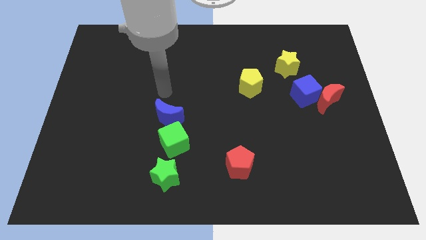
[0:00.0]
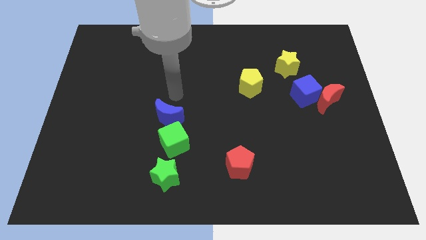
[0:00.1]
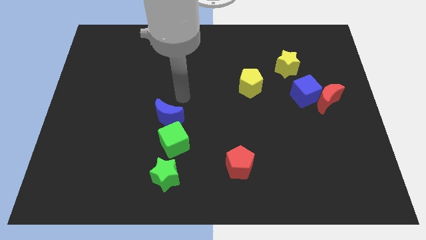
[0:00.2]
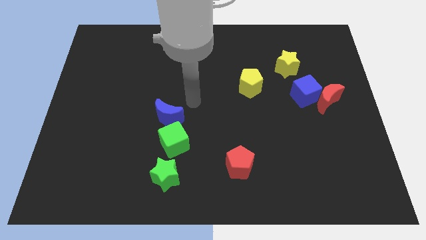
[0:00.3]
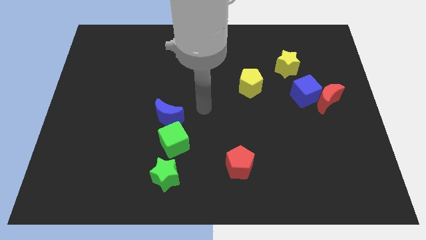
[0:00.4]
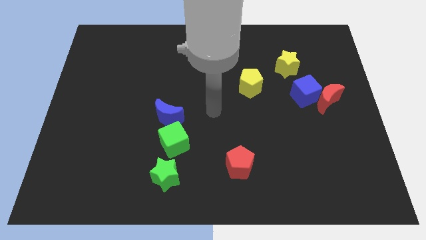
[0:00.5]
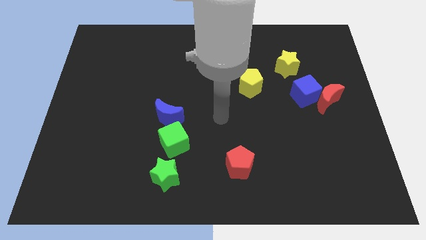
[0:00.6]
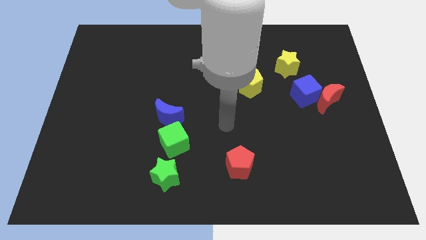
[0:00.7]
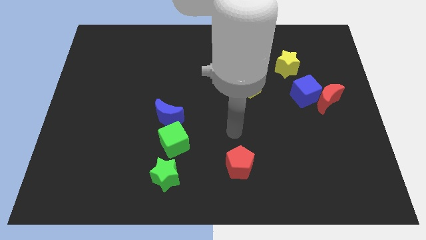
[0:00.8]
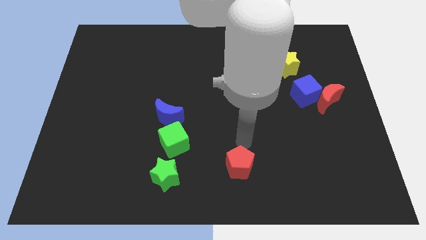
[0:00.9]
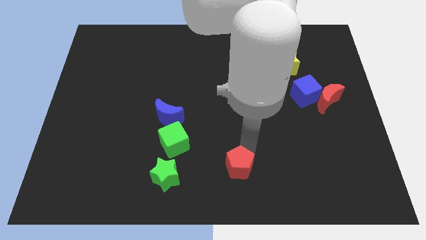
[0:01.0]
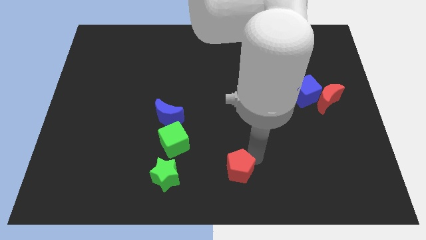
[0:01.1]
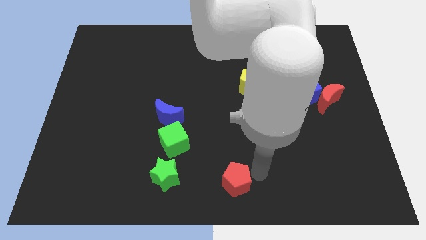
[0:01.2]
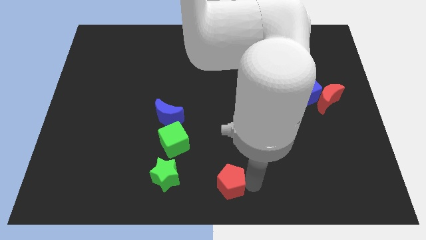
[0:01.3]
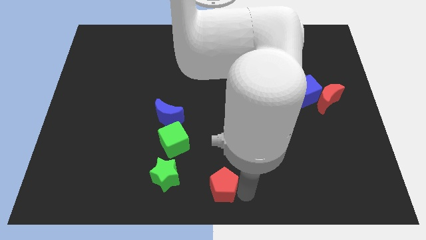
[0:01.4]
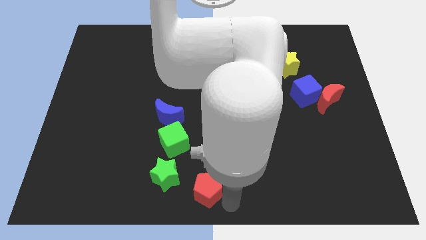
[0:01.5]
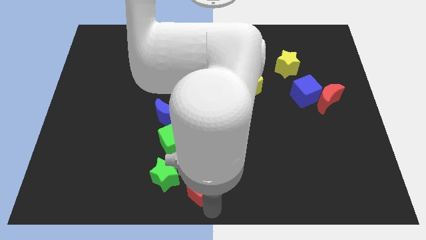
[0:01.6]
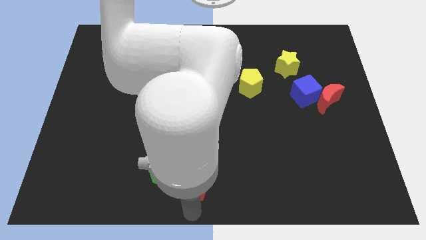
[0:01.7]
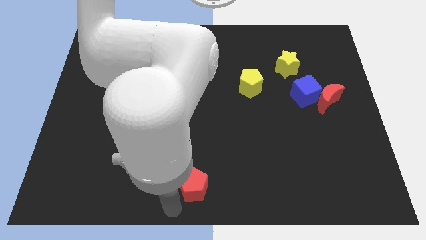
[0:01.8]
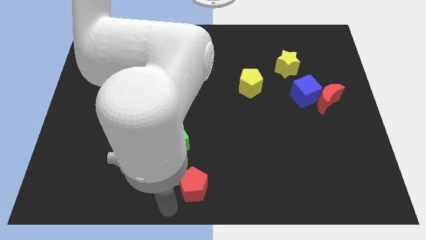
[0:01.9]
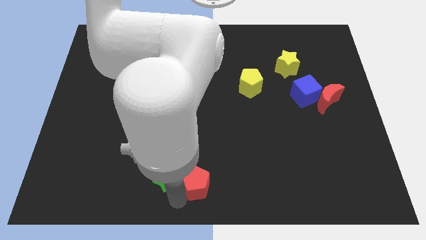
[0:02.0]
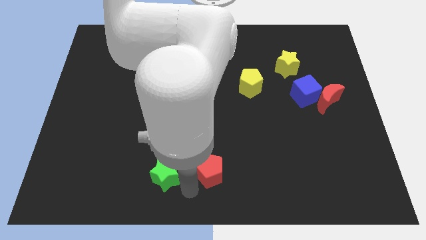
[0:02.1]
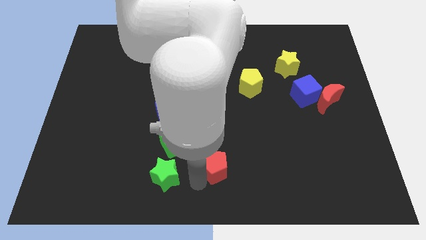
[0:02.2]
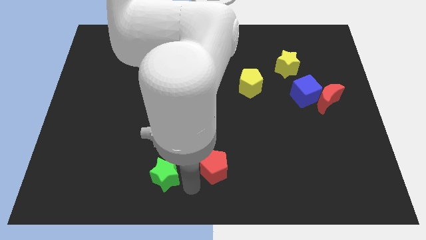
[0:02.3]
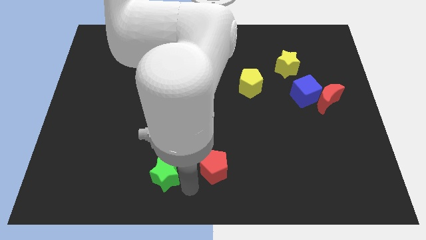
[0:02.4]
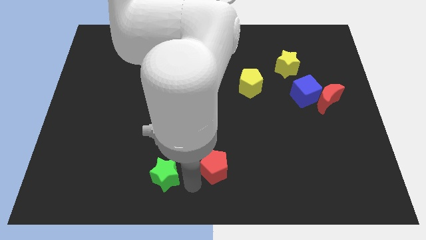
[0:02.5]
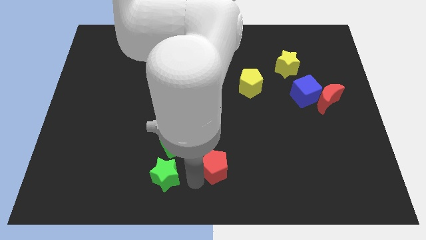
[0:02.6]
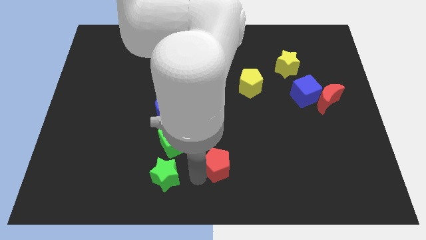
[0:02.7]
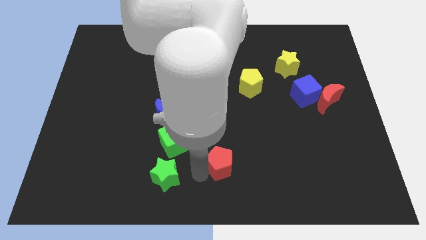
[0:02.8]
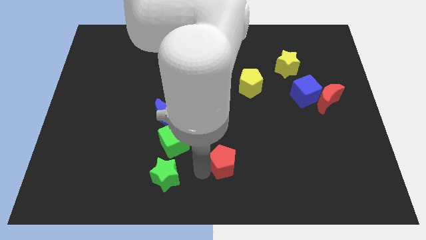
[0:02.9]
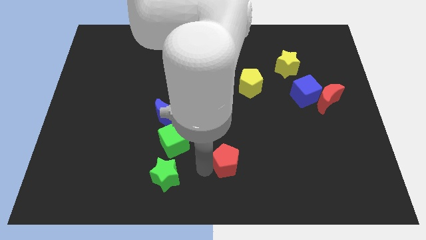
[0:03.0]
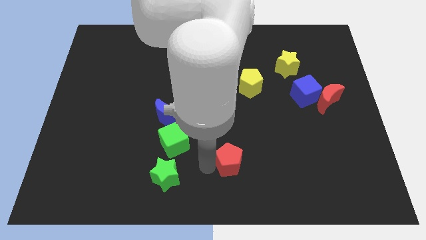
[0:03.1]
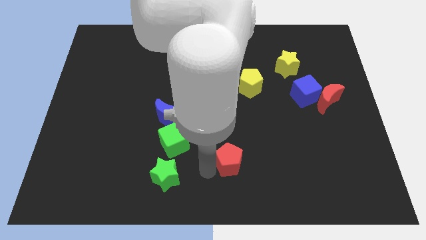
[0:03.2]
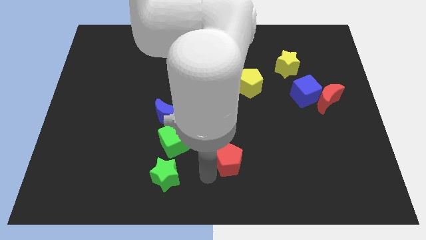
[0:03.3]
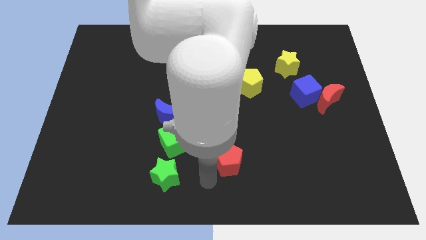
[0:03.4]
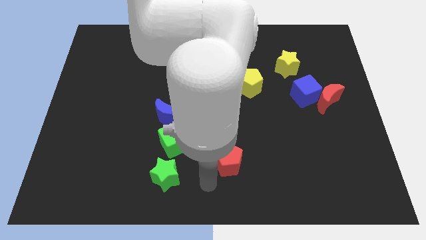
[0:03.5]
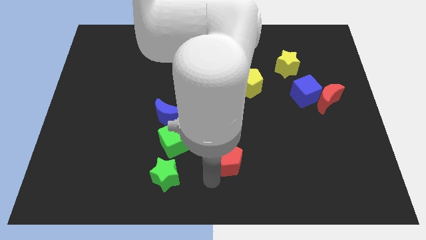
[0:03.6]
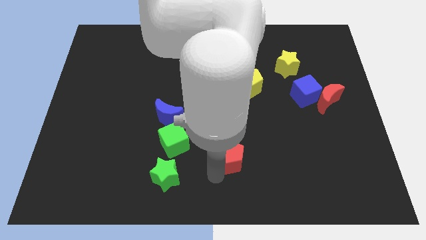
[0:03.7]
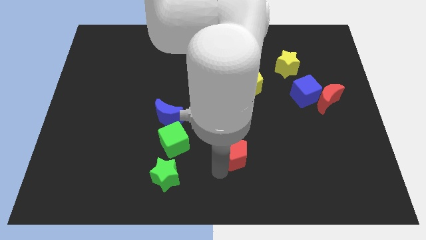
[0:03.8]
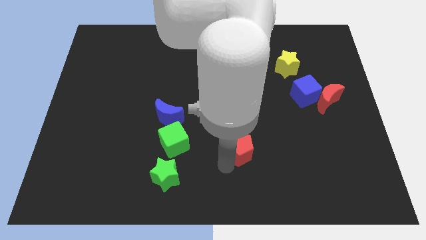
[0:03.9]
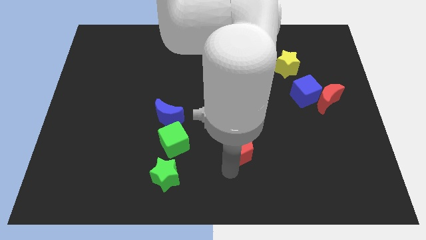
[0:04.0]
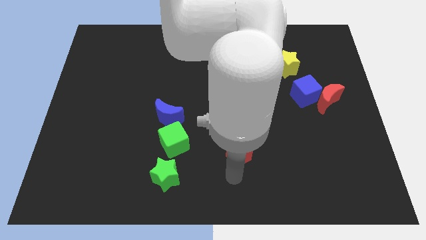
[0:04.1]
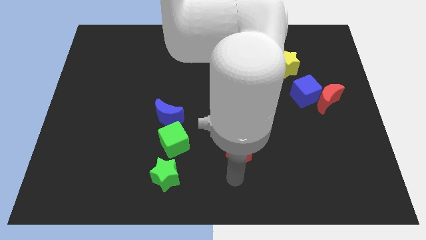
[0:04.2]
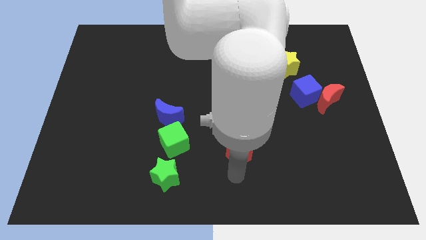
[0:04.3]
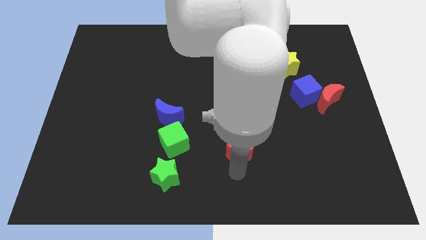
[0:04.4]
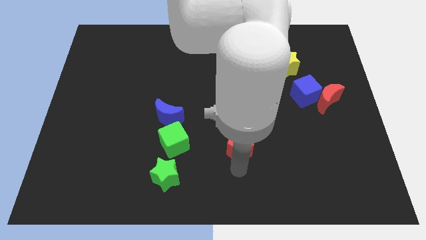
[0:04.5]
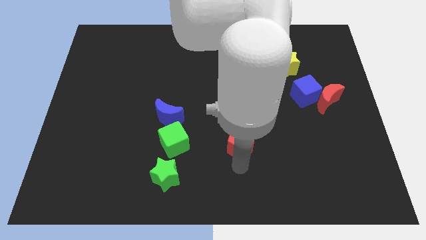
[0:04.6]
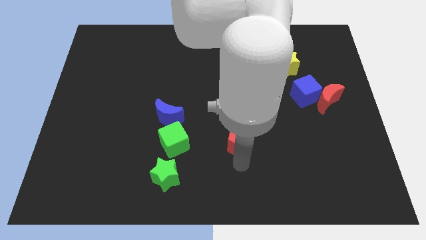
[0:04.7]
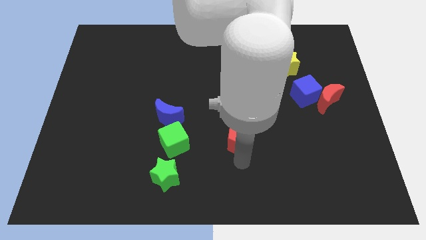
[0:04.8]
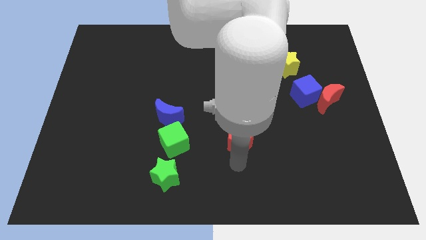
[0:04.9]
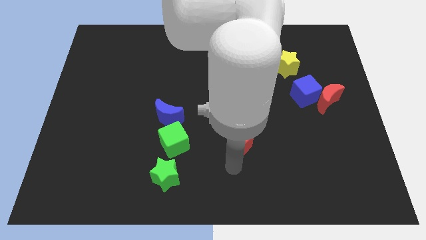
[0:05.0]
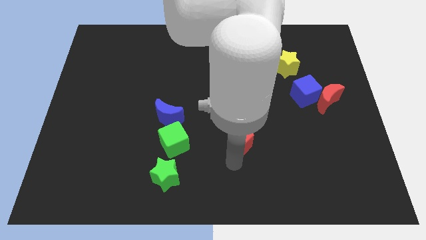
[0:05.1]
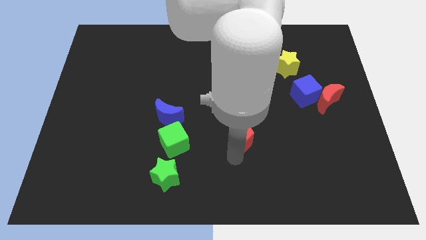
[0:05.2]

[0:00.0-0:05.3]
push the red pentagon up a bit

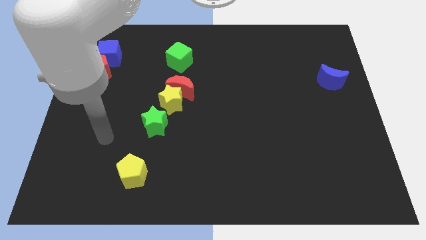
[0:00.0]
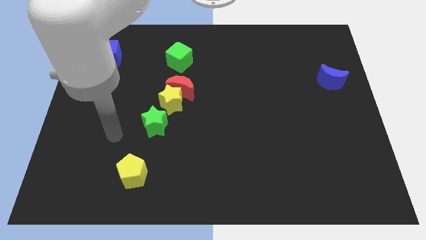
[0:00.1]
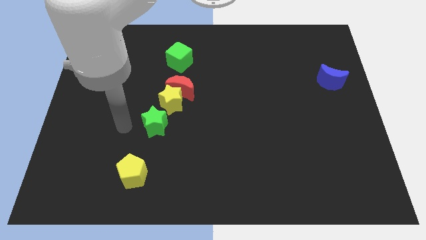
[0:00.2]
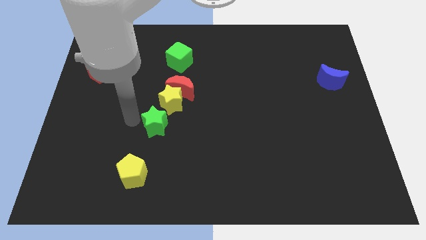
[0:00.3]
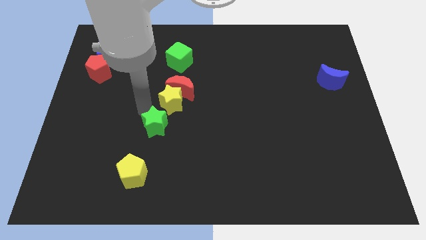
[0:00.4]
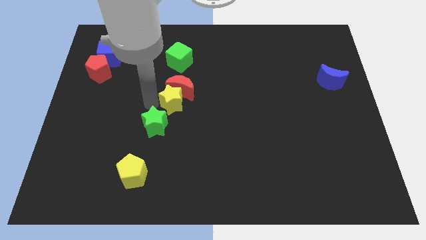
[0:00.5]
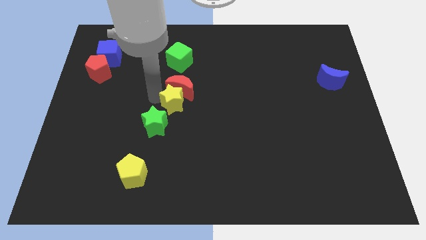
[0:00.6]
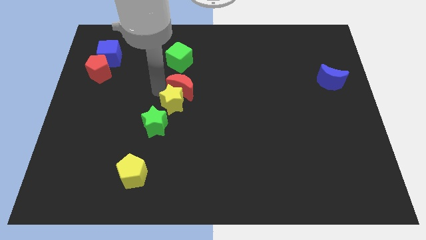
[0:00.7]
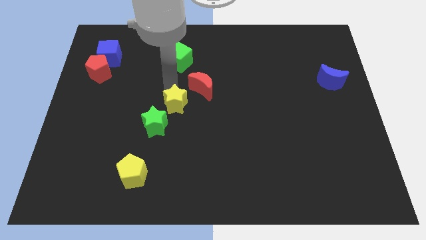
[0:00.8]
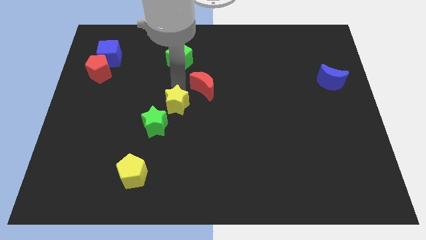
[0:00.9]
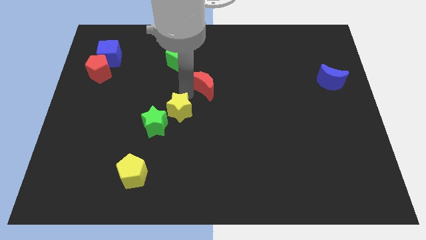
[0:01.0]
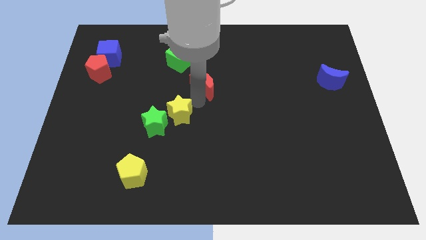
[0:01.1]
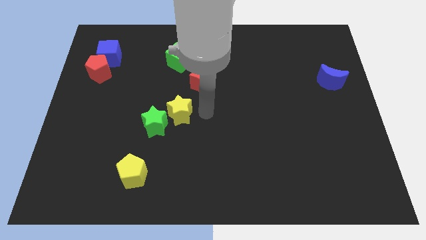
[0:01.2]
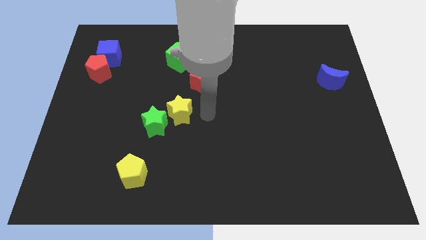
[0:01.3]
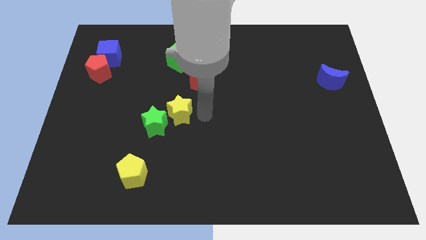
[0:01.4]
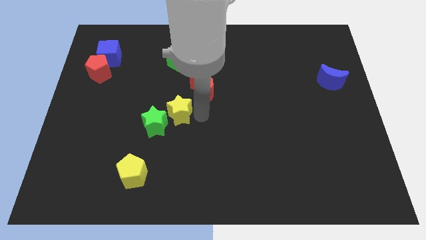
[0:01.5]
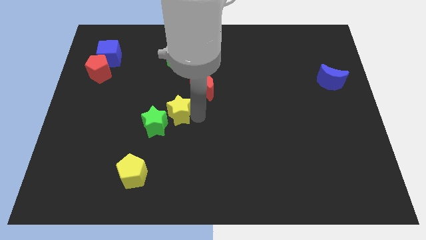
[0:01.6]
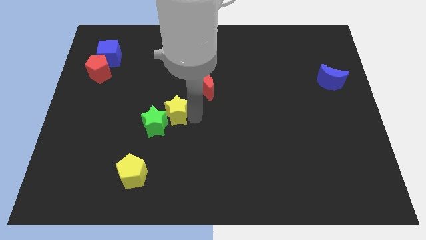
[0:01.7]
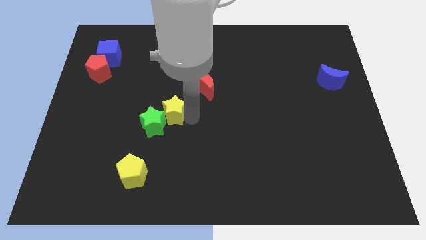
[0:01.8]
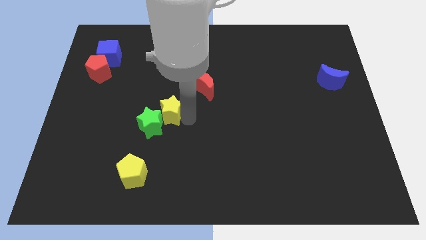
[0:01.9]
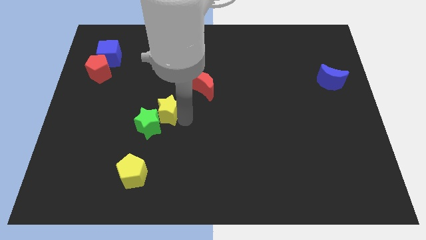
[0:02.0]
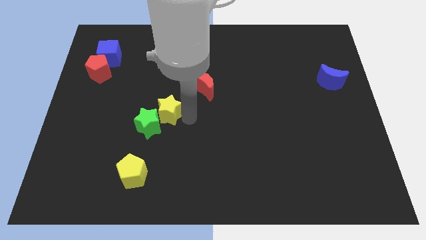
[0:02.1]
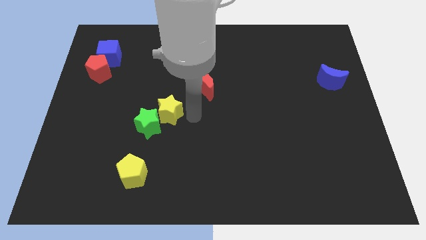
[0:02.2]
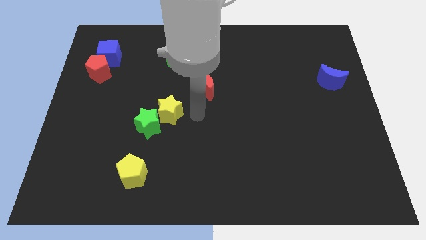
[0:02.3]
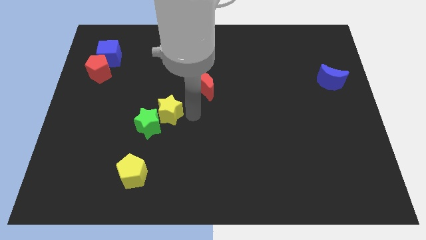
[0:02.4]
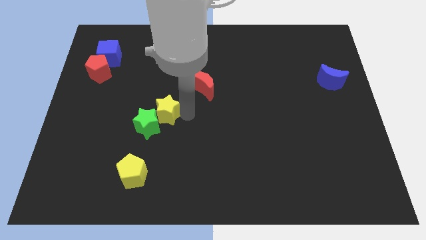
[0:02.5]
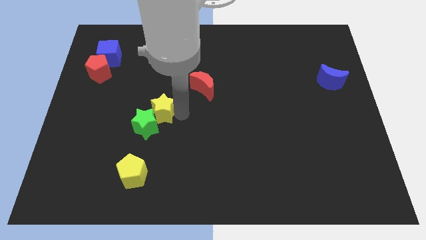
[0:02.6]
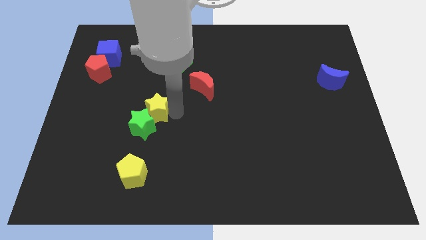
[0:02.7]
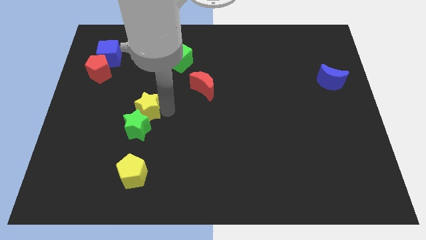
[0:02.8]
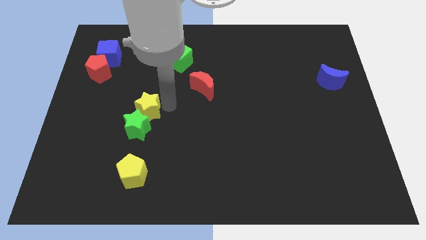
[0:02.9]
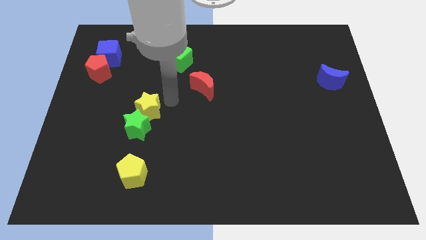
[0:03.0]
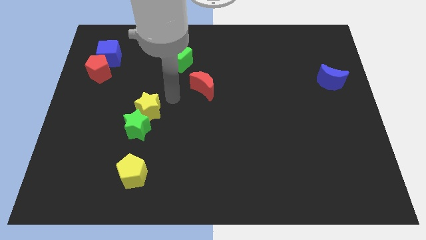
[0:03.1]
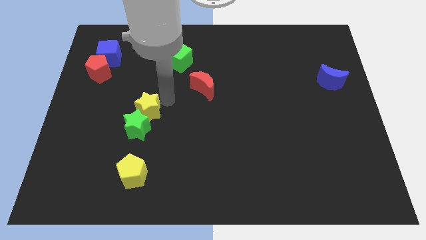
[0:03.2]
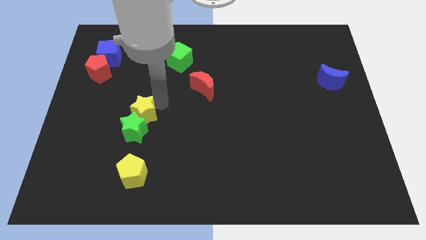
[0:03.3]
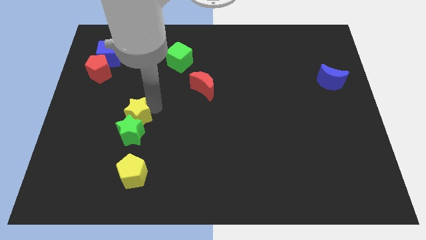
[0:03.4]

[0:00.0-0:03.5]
slide the yellow star slightly downwards and then left
